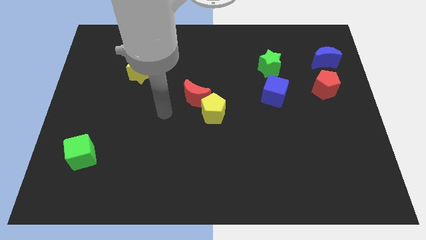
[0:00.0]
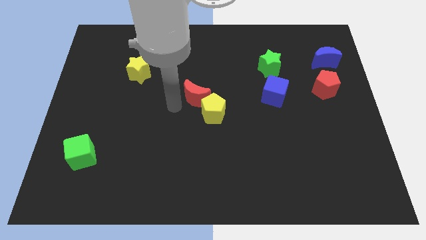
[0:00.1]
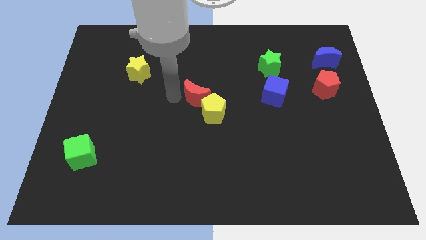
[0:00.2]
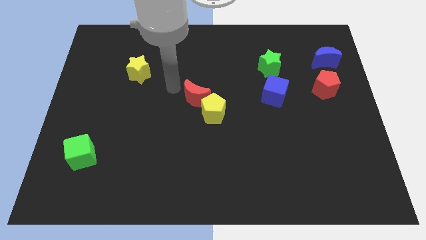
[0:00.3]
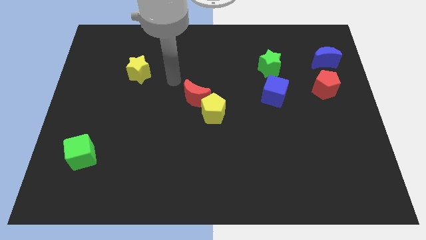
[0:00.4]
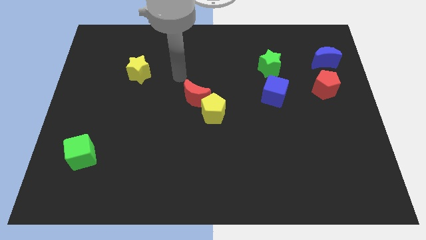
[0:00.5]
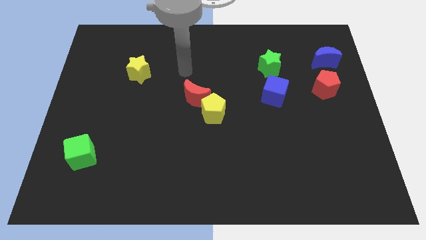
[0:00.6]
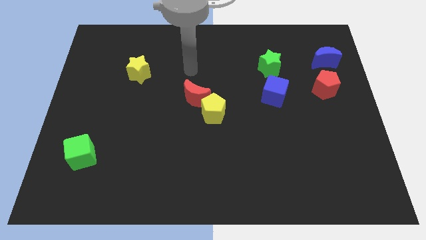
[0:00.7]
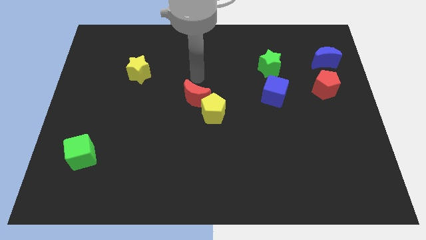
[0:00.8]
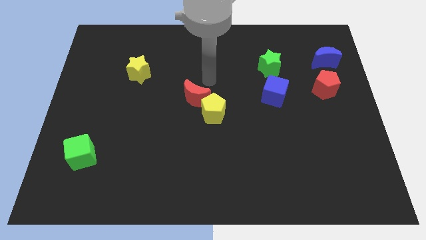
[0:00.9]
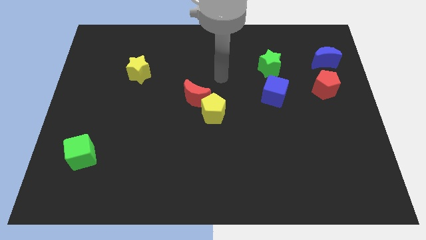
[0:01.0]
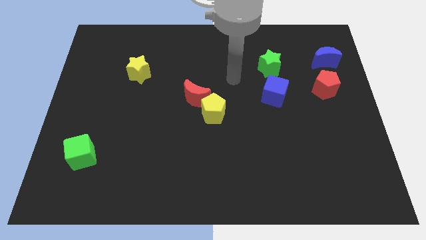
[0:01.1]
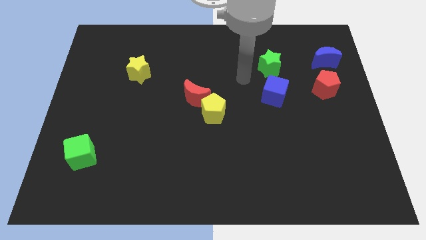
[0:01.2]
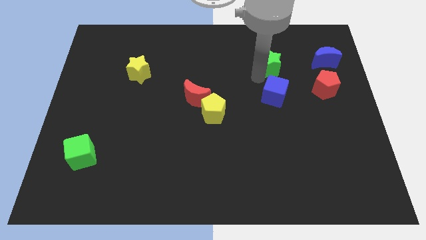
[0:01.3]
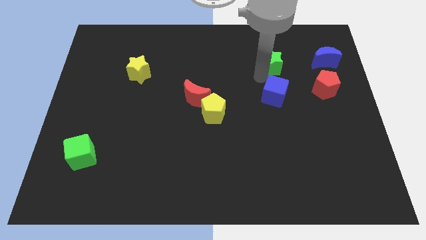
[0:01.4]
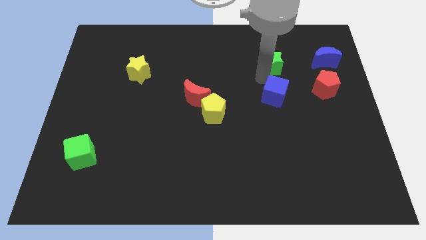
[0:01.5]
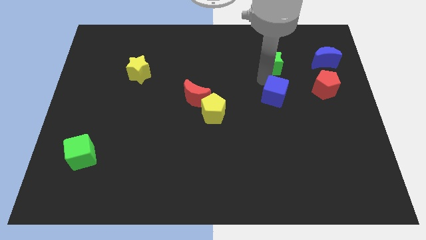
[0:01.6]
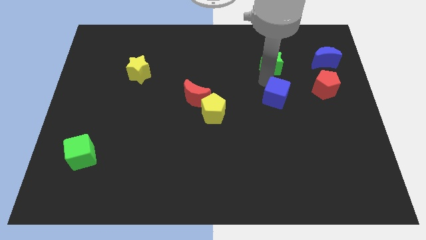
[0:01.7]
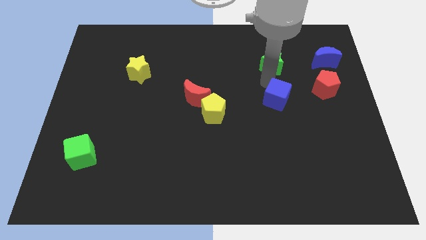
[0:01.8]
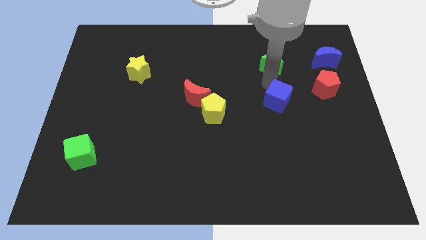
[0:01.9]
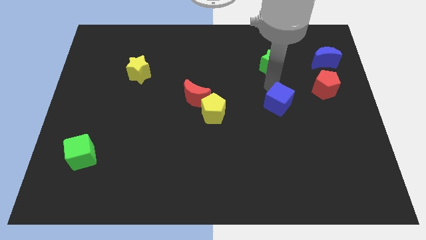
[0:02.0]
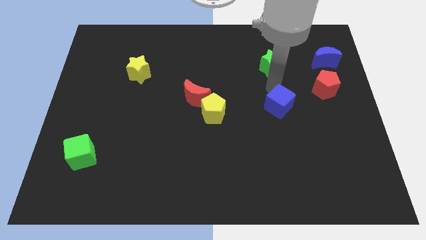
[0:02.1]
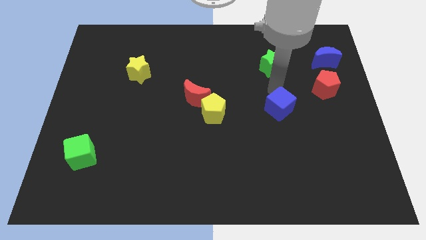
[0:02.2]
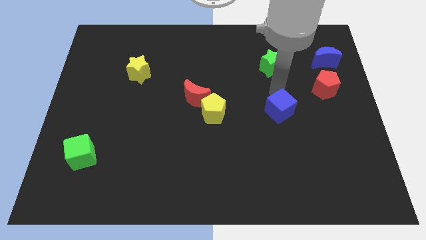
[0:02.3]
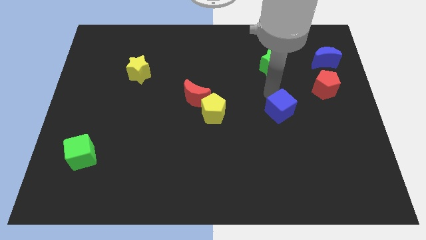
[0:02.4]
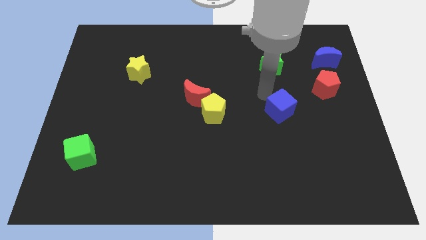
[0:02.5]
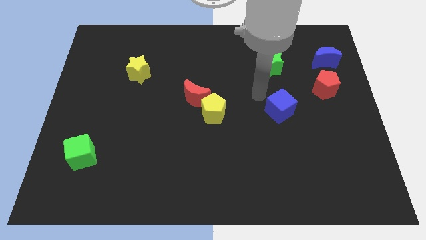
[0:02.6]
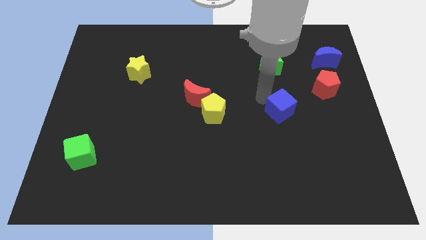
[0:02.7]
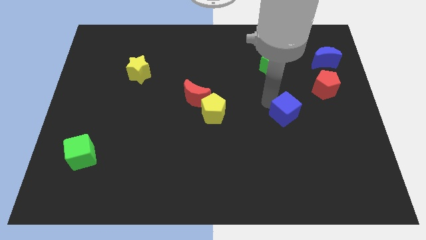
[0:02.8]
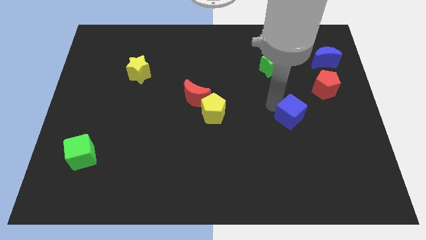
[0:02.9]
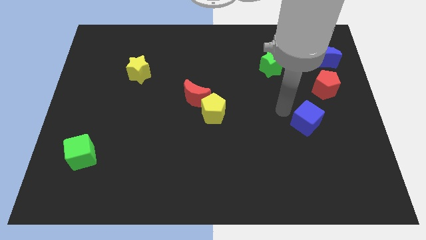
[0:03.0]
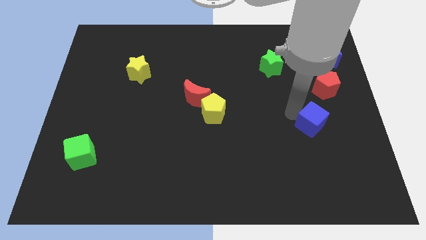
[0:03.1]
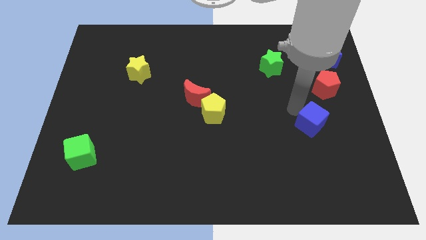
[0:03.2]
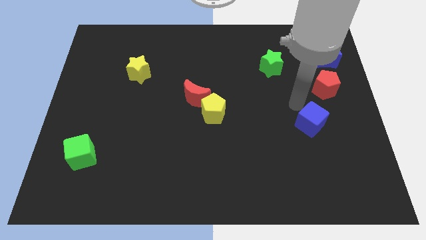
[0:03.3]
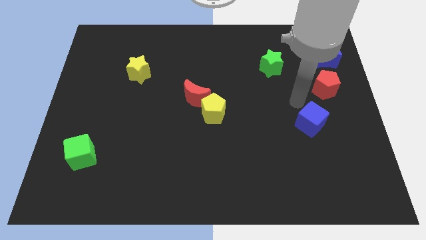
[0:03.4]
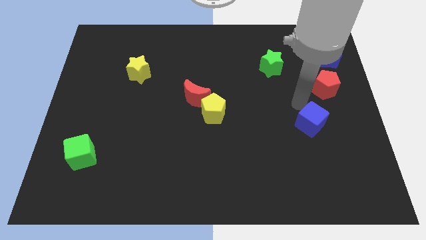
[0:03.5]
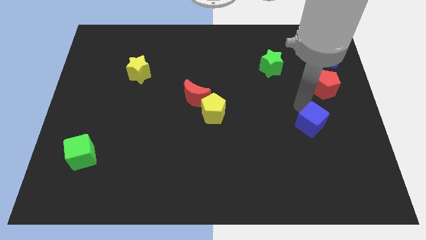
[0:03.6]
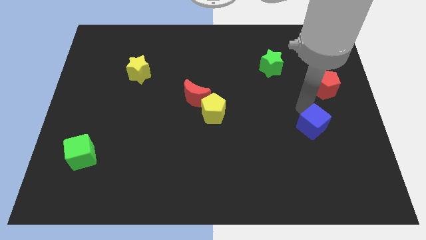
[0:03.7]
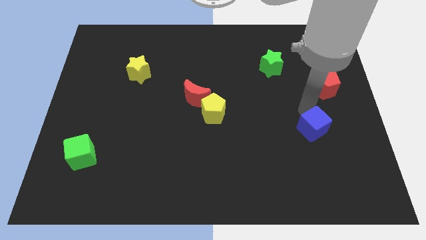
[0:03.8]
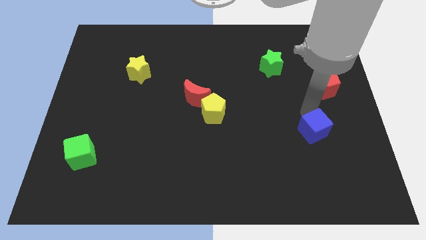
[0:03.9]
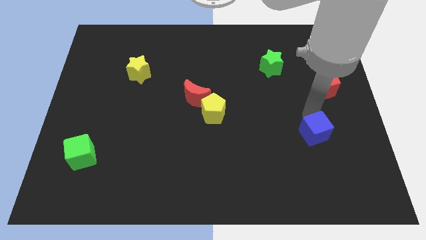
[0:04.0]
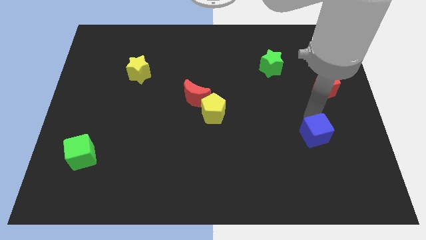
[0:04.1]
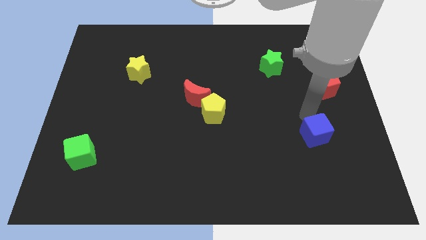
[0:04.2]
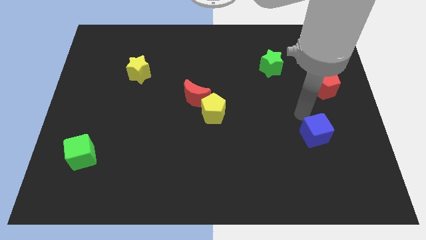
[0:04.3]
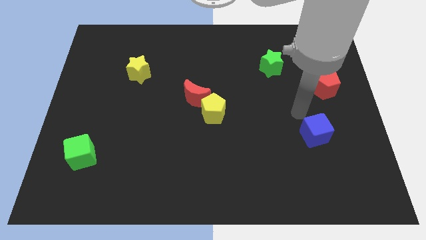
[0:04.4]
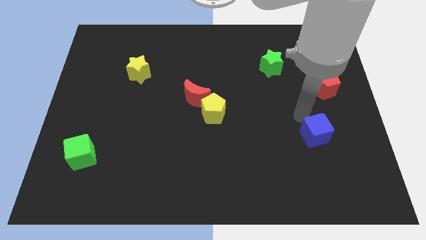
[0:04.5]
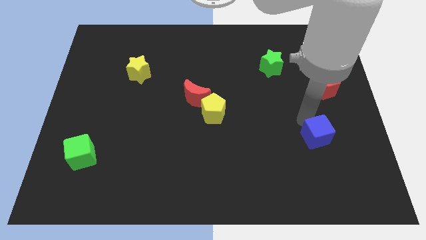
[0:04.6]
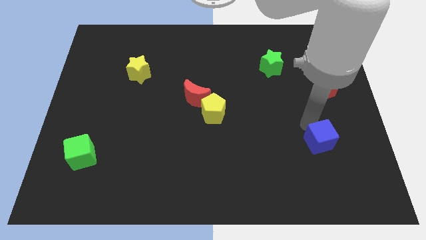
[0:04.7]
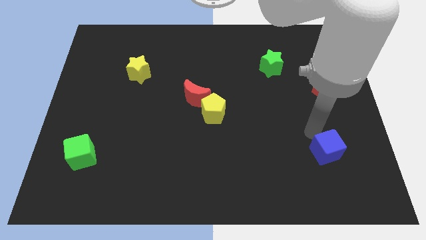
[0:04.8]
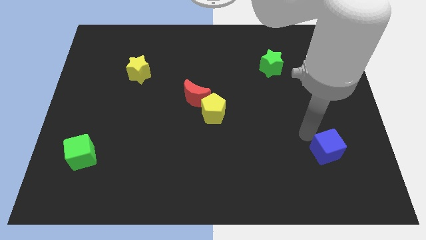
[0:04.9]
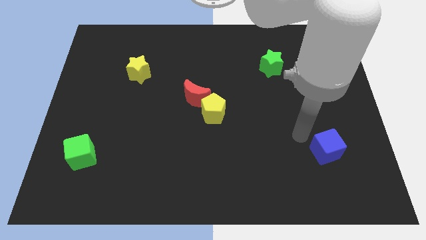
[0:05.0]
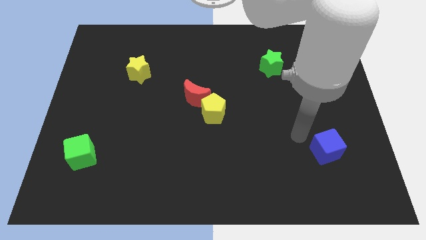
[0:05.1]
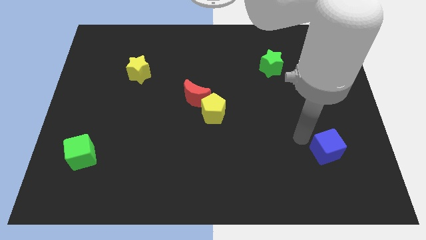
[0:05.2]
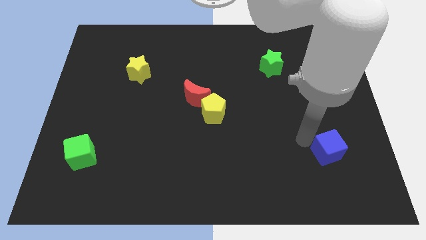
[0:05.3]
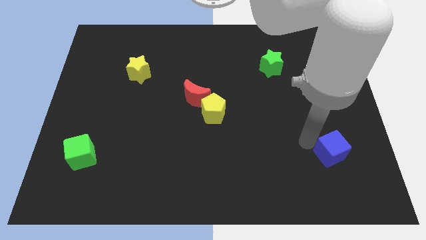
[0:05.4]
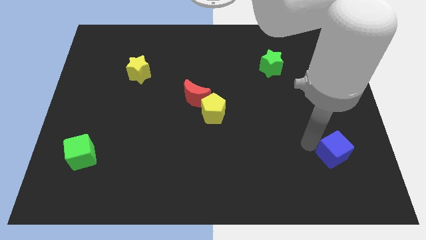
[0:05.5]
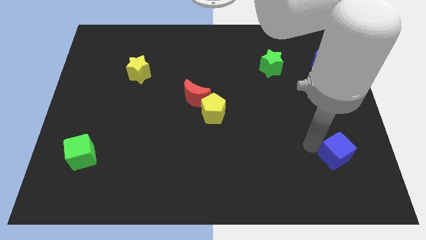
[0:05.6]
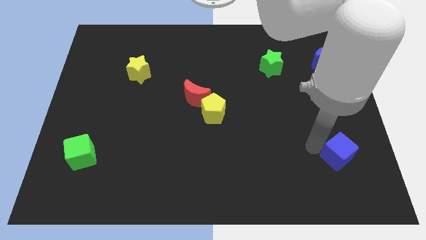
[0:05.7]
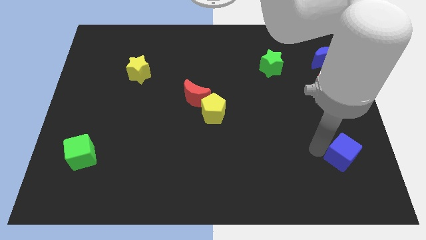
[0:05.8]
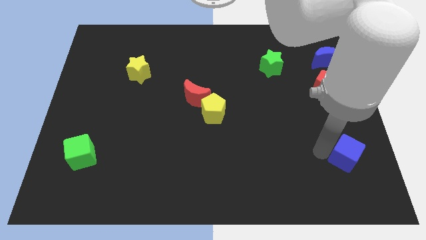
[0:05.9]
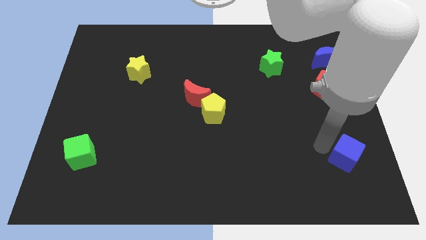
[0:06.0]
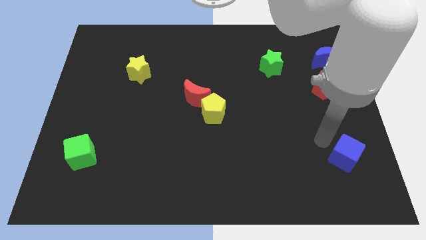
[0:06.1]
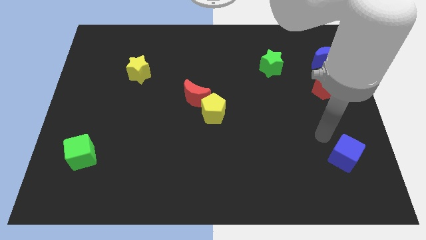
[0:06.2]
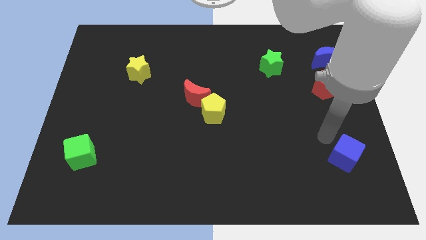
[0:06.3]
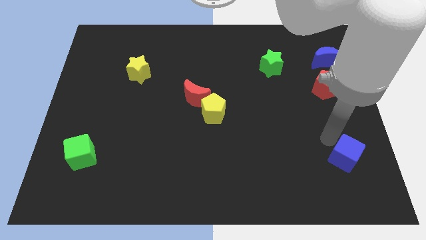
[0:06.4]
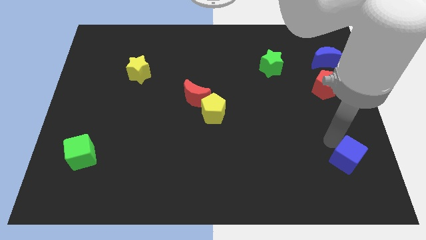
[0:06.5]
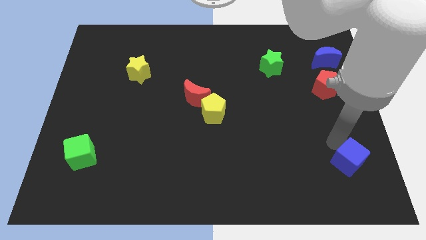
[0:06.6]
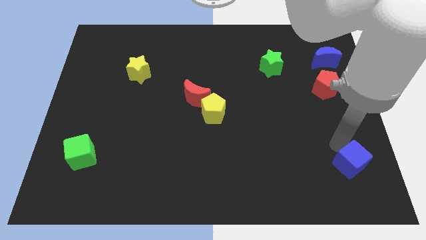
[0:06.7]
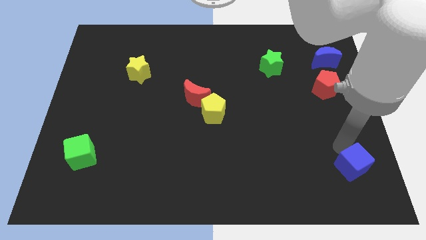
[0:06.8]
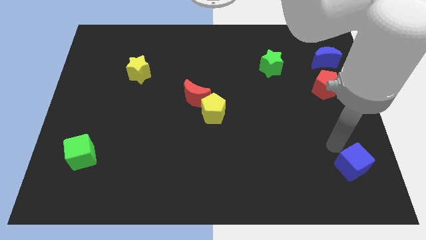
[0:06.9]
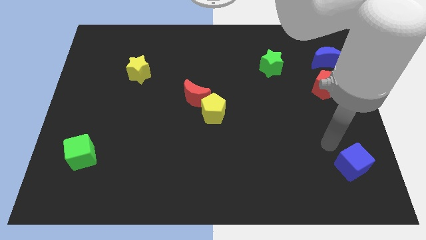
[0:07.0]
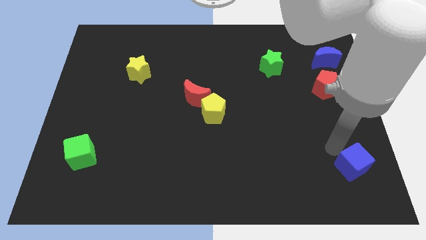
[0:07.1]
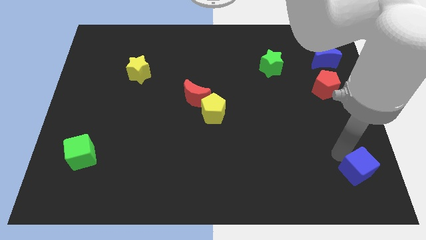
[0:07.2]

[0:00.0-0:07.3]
push the blue cube to the bottom right of the board

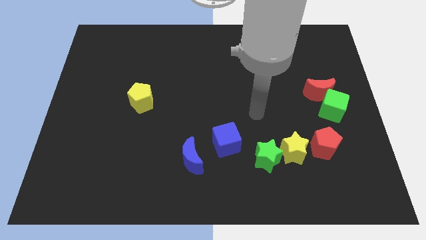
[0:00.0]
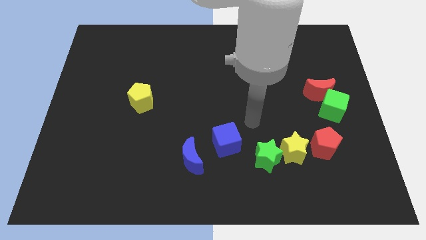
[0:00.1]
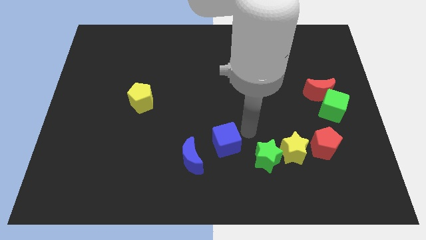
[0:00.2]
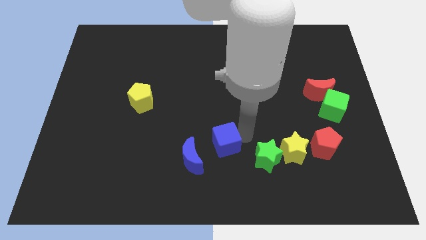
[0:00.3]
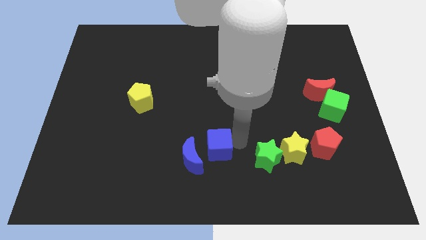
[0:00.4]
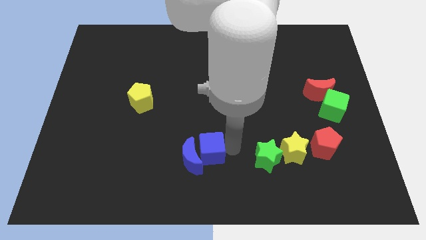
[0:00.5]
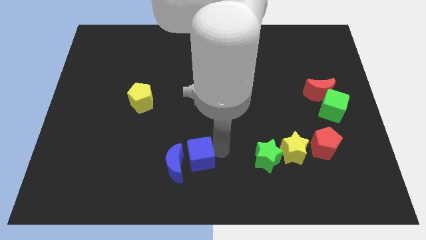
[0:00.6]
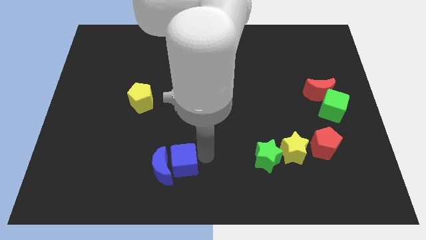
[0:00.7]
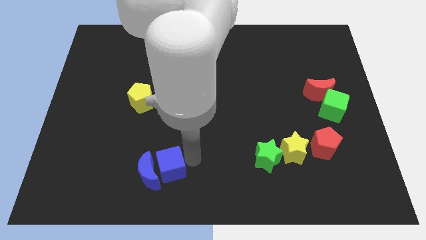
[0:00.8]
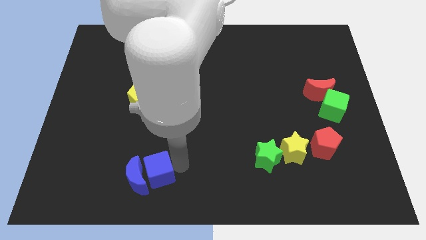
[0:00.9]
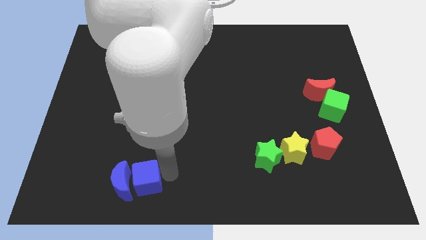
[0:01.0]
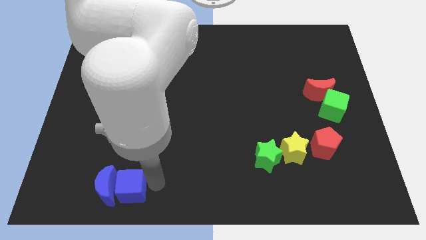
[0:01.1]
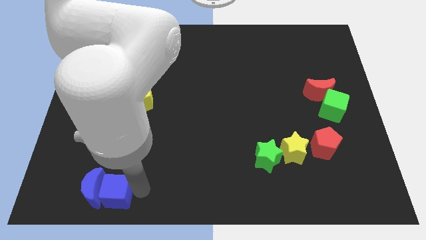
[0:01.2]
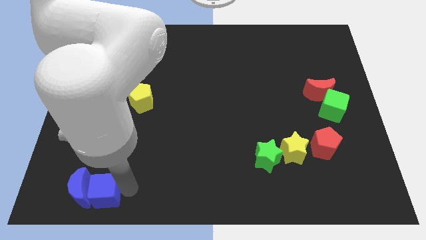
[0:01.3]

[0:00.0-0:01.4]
slide the blue moon to the bottom left of the board
